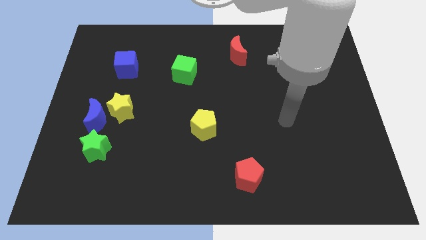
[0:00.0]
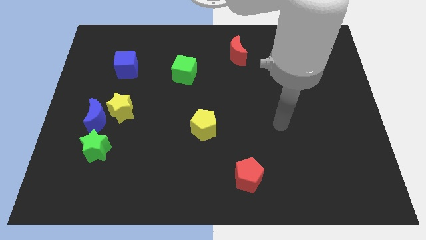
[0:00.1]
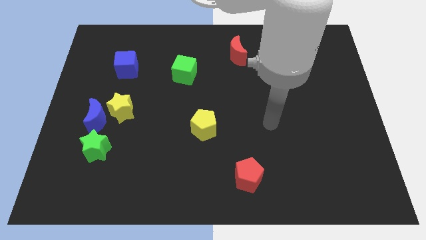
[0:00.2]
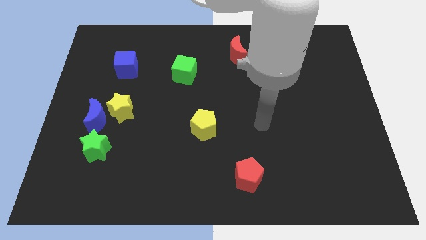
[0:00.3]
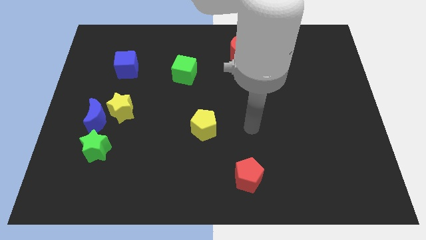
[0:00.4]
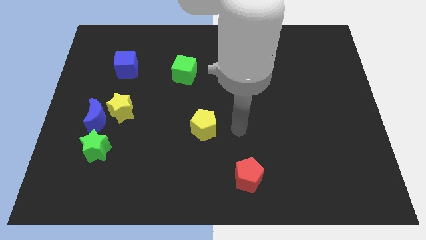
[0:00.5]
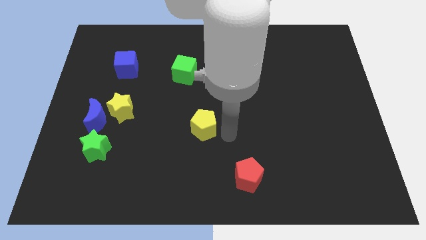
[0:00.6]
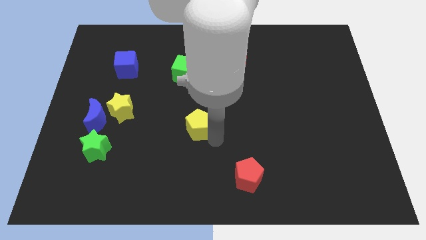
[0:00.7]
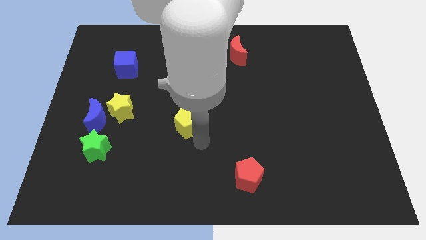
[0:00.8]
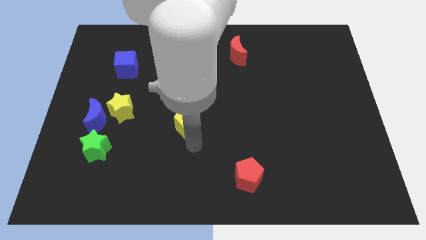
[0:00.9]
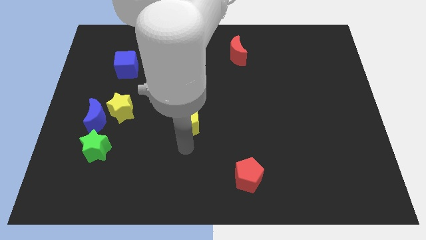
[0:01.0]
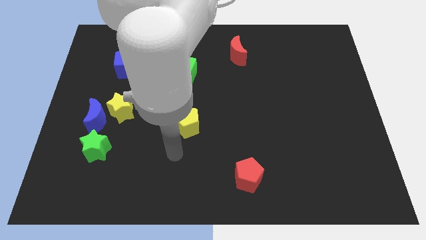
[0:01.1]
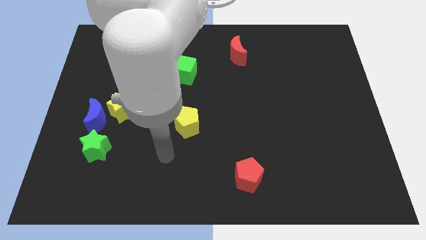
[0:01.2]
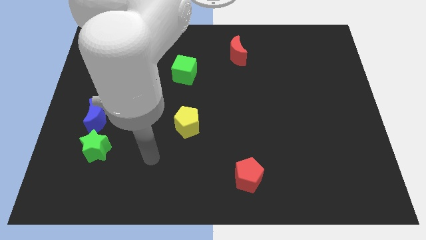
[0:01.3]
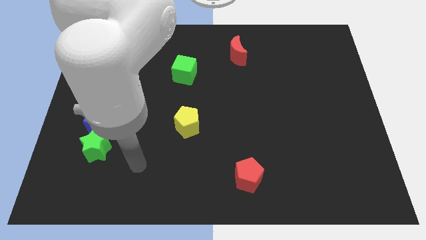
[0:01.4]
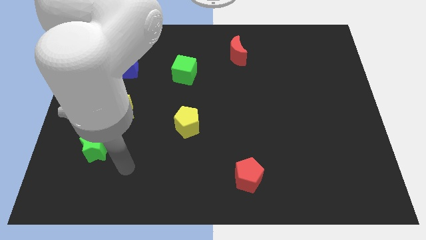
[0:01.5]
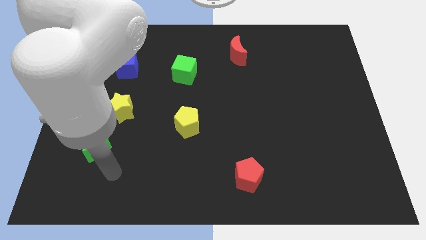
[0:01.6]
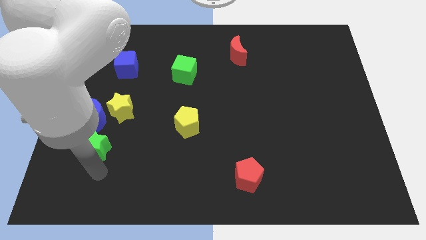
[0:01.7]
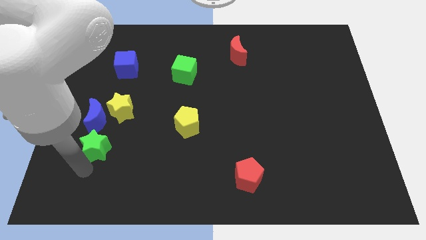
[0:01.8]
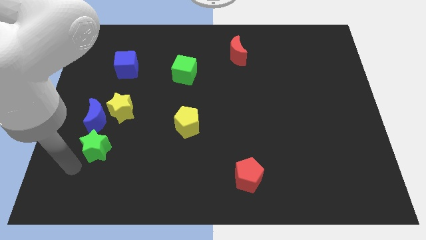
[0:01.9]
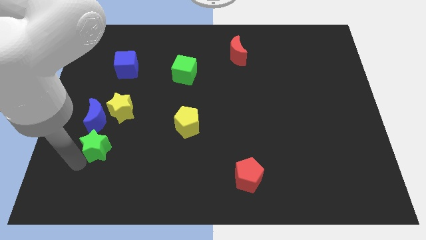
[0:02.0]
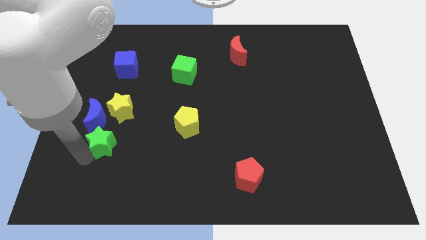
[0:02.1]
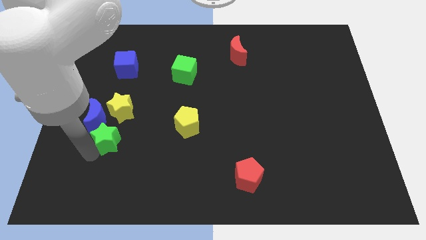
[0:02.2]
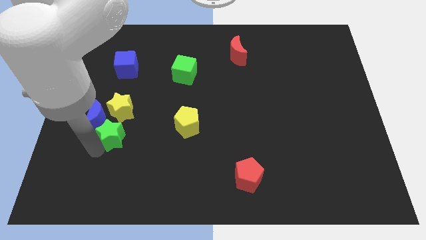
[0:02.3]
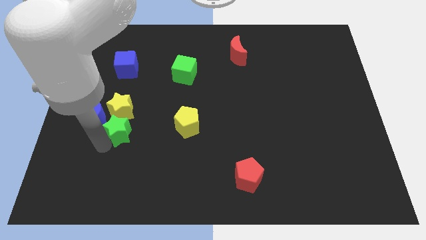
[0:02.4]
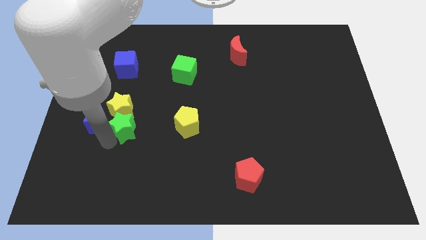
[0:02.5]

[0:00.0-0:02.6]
slightly move the green star up and right diagonally

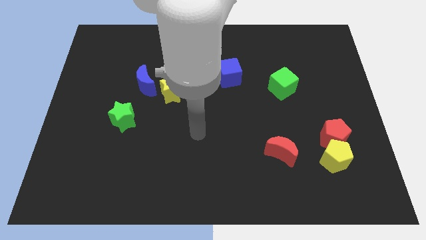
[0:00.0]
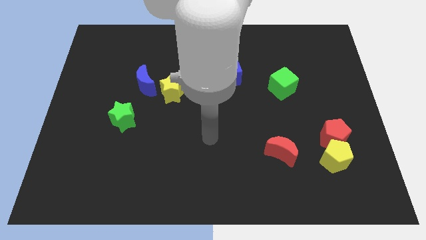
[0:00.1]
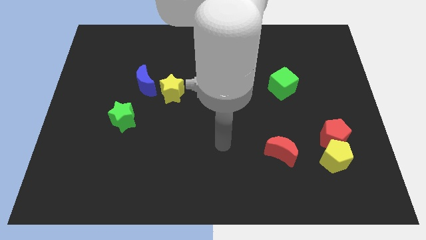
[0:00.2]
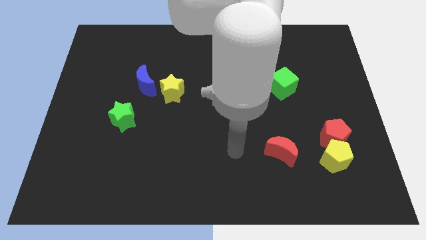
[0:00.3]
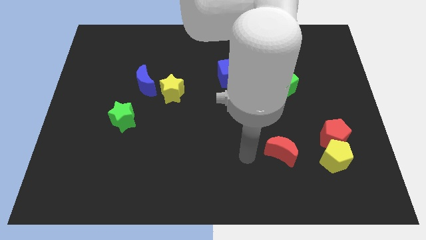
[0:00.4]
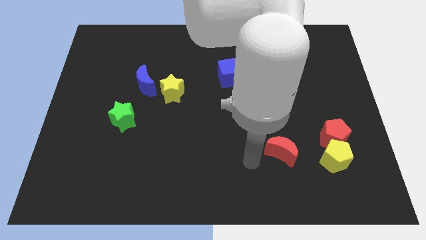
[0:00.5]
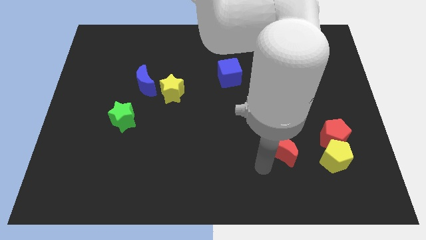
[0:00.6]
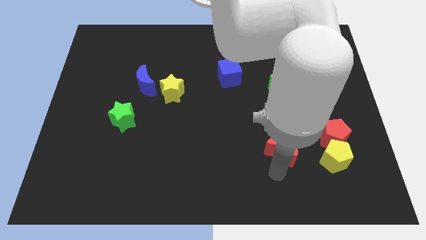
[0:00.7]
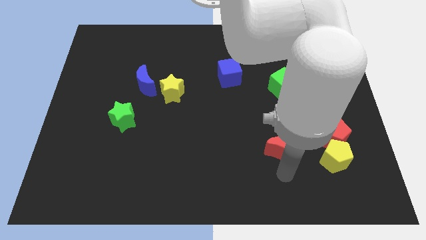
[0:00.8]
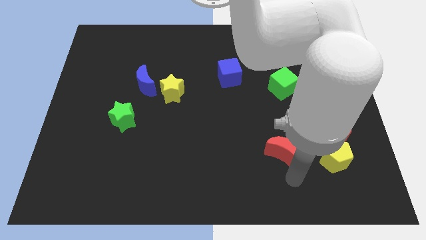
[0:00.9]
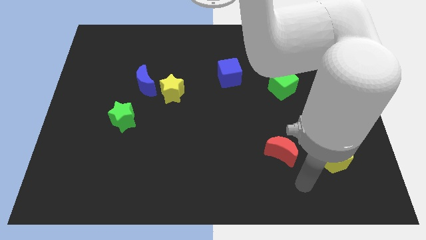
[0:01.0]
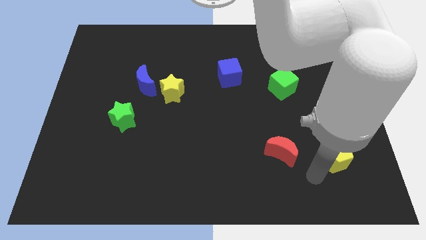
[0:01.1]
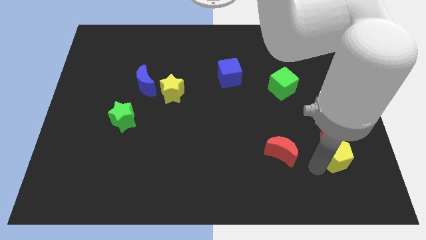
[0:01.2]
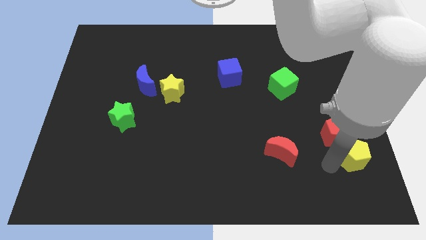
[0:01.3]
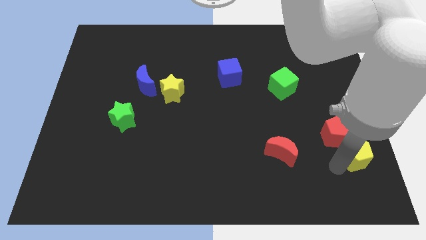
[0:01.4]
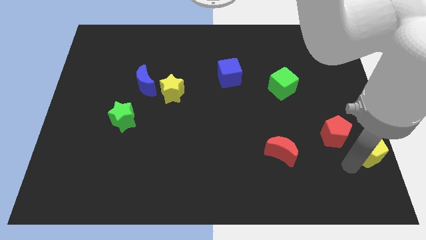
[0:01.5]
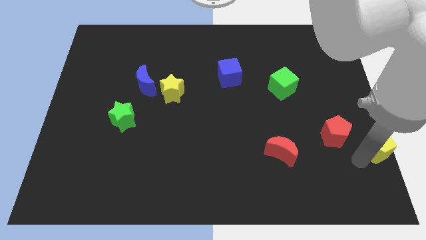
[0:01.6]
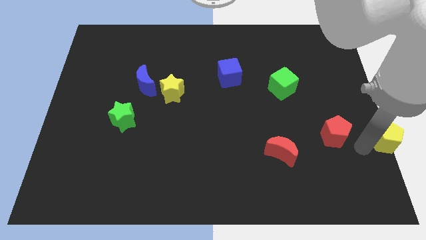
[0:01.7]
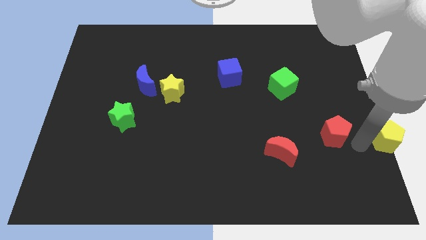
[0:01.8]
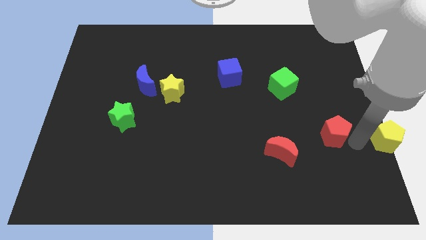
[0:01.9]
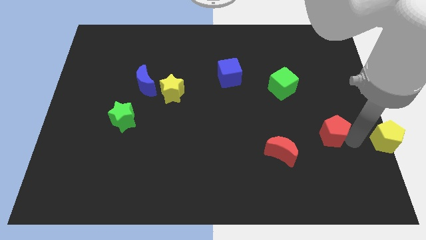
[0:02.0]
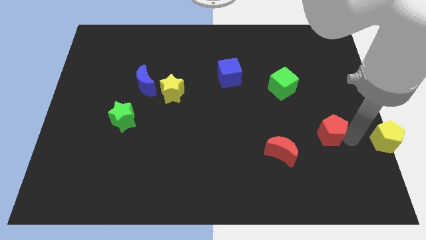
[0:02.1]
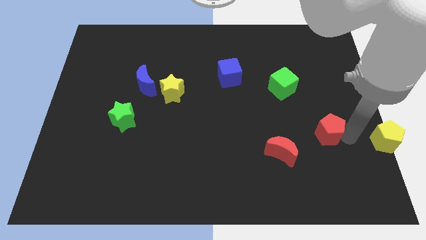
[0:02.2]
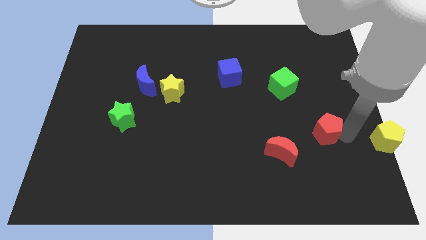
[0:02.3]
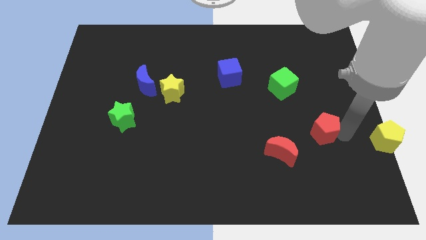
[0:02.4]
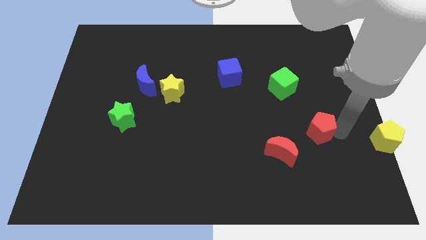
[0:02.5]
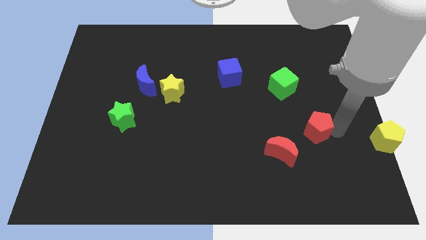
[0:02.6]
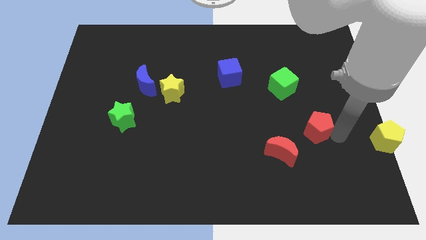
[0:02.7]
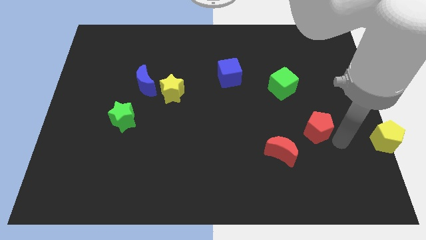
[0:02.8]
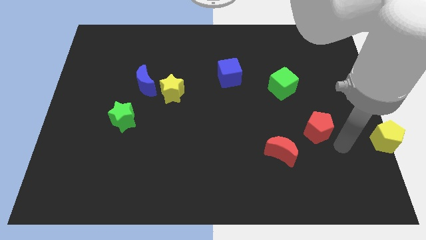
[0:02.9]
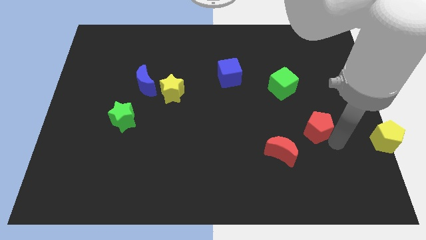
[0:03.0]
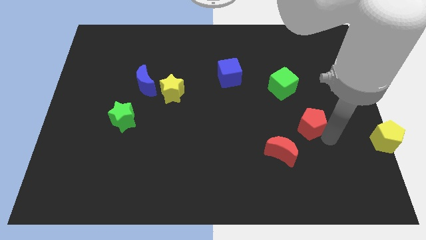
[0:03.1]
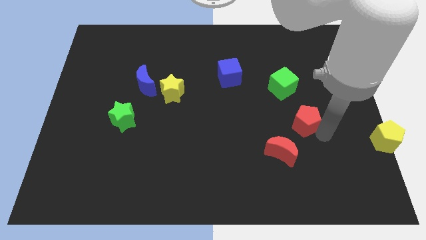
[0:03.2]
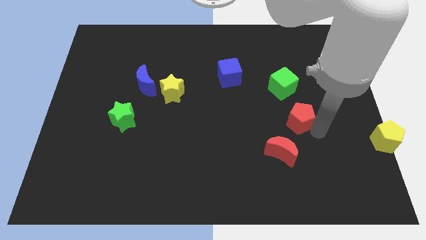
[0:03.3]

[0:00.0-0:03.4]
slide the red pentagon up and left a little bit

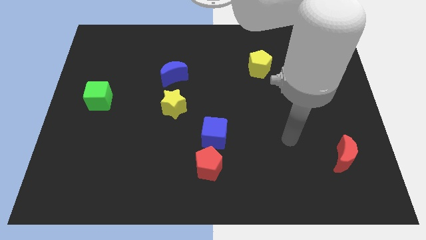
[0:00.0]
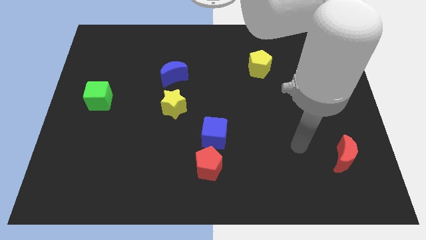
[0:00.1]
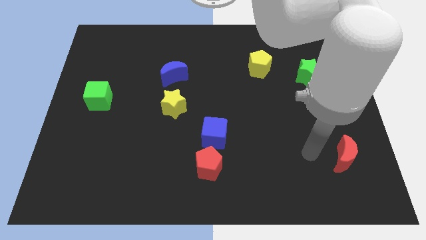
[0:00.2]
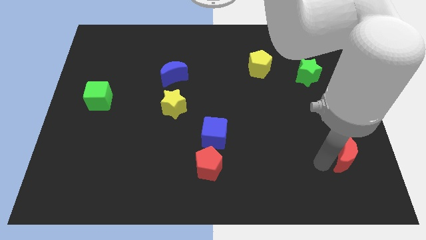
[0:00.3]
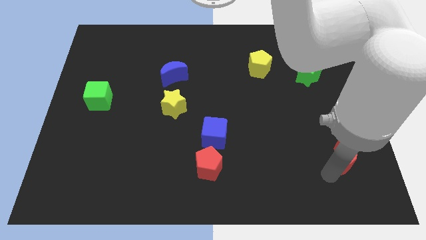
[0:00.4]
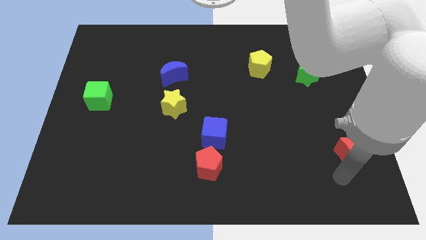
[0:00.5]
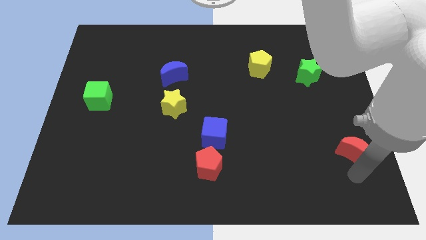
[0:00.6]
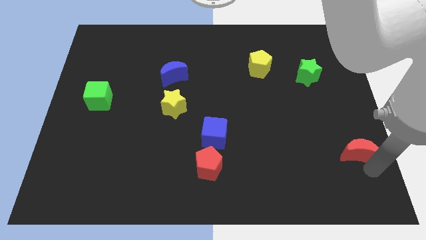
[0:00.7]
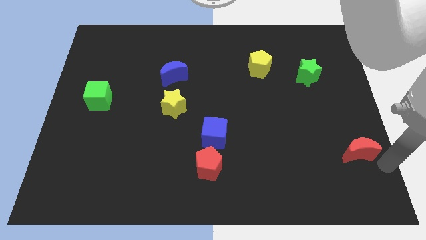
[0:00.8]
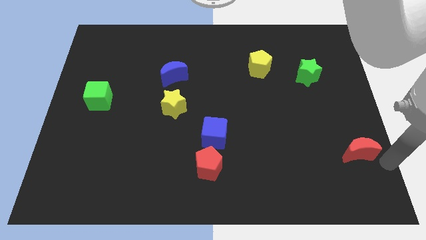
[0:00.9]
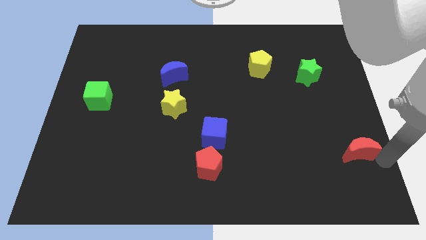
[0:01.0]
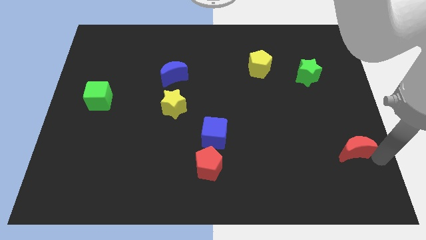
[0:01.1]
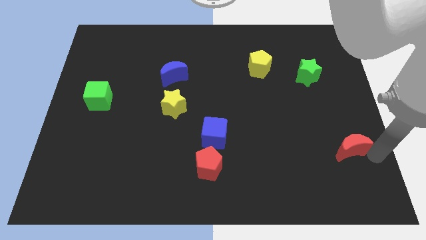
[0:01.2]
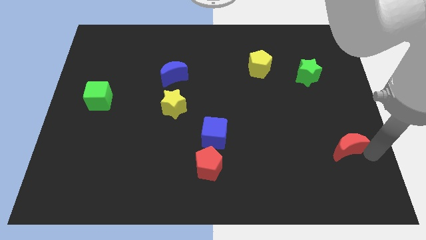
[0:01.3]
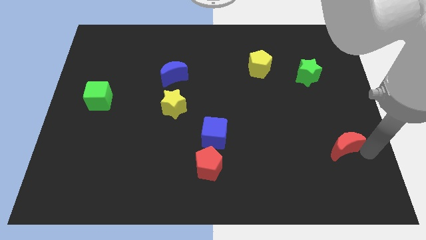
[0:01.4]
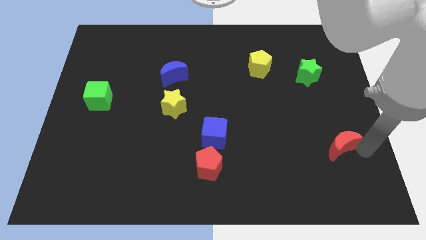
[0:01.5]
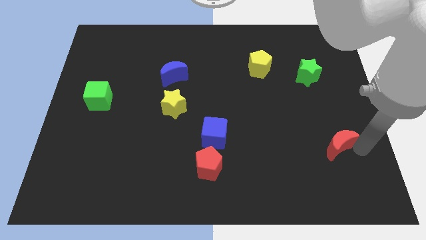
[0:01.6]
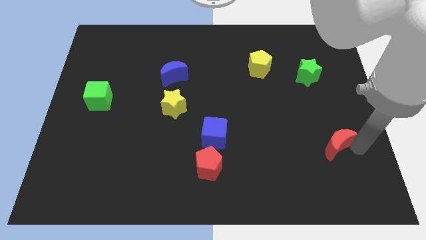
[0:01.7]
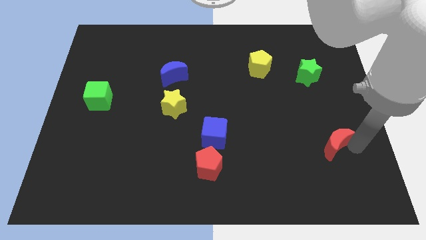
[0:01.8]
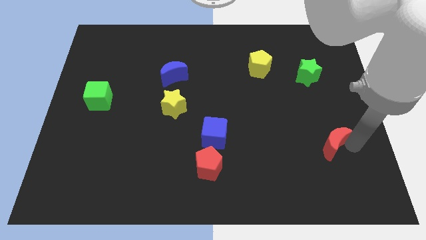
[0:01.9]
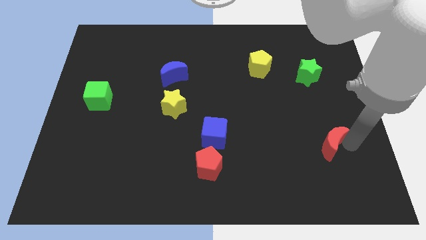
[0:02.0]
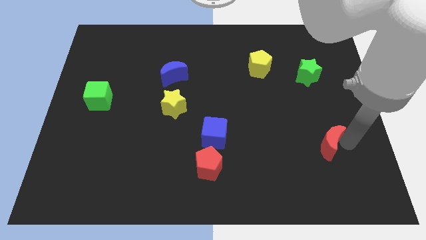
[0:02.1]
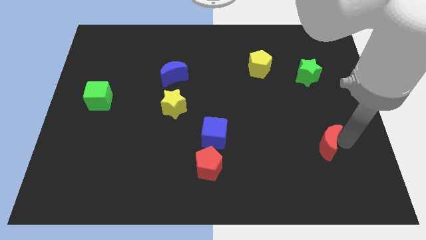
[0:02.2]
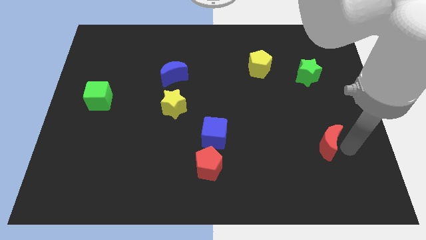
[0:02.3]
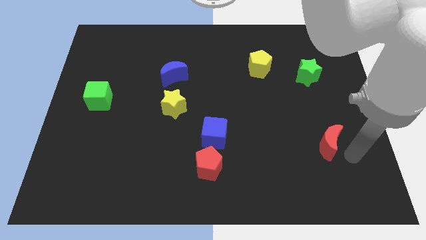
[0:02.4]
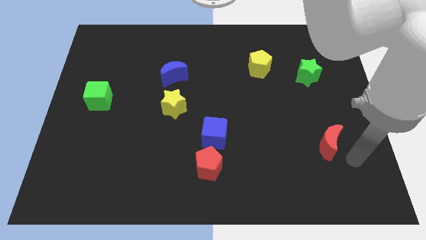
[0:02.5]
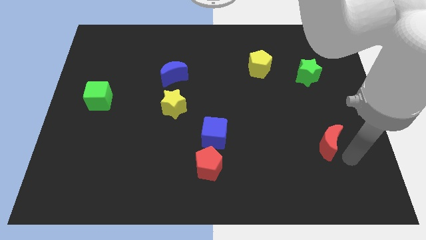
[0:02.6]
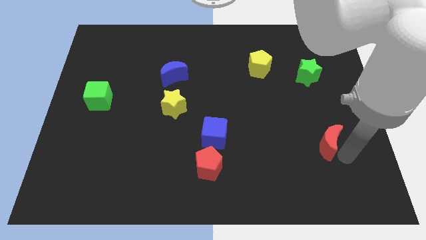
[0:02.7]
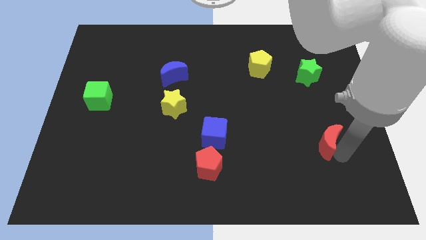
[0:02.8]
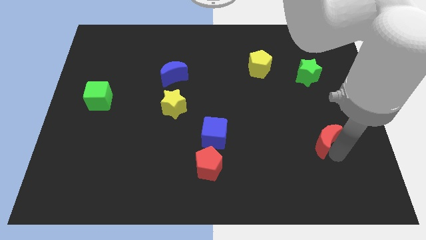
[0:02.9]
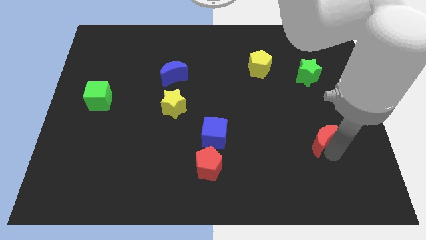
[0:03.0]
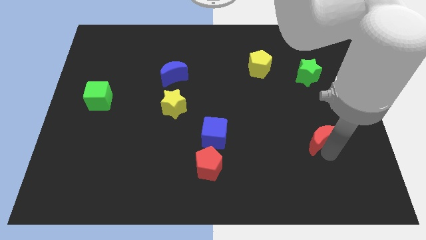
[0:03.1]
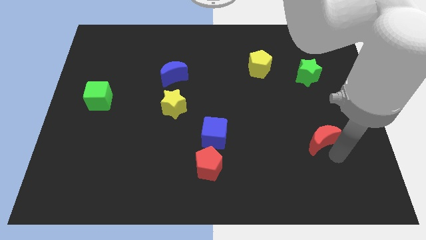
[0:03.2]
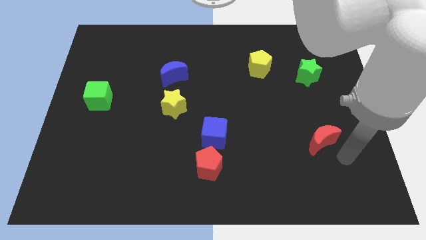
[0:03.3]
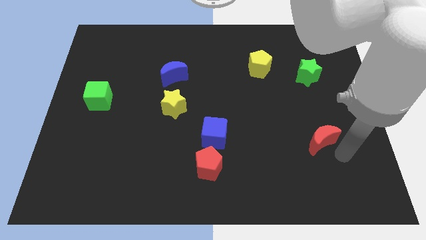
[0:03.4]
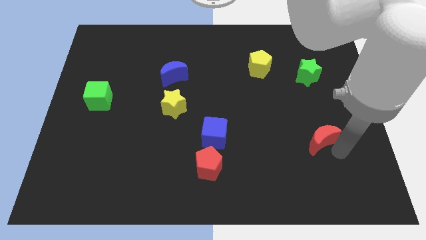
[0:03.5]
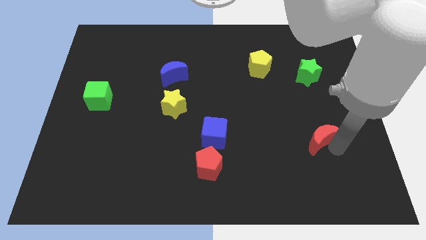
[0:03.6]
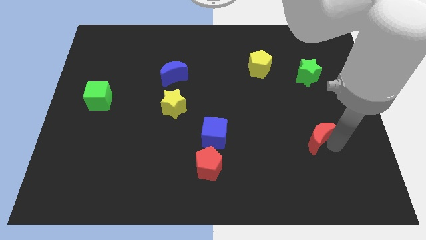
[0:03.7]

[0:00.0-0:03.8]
push the red moon a bit up and left diagonally
